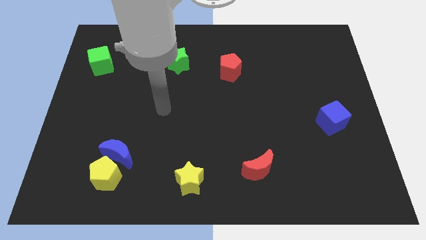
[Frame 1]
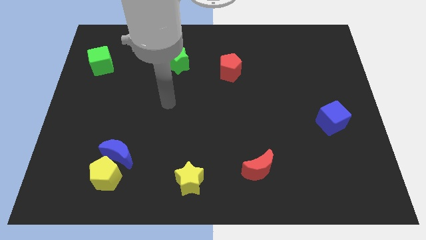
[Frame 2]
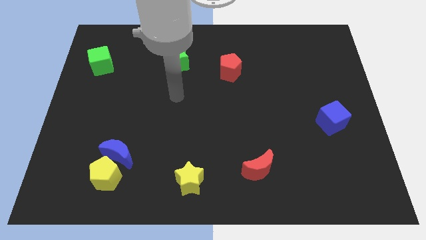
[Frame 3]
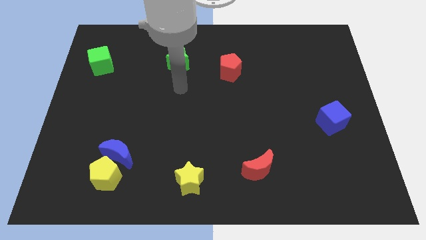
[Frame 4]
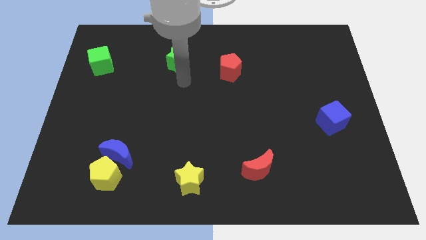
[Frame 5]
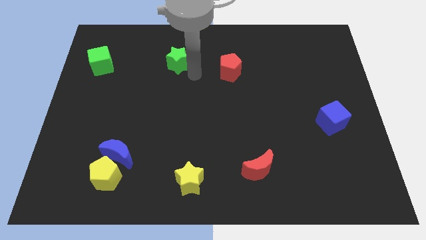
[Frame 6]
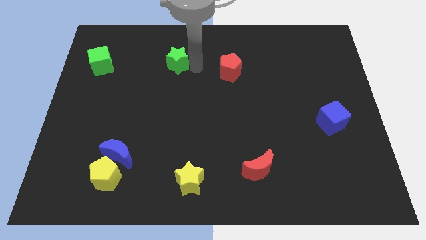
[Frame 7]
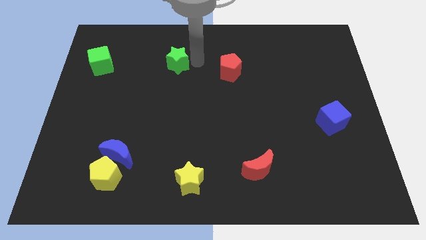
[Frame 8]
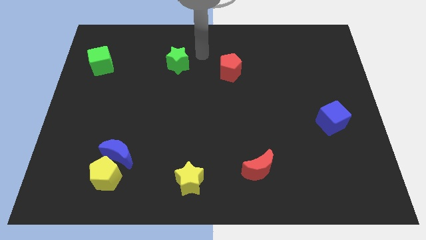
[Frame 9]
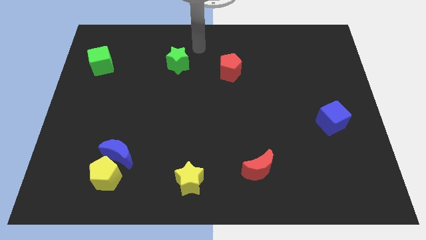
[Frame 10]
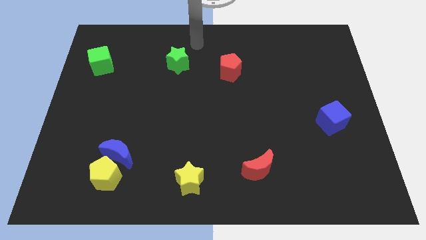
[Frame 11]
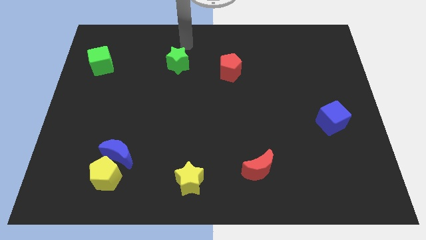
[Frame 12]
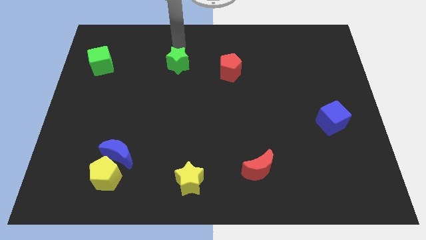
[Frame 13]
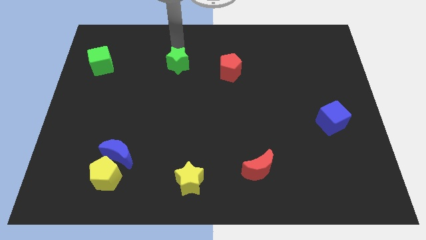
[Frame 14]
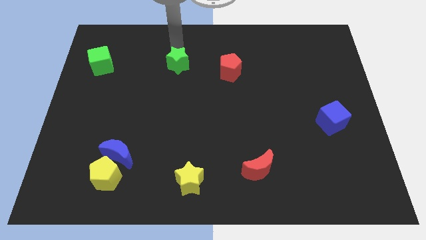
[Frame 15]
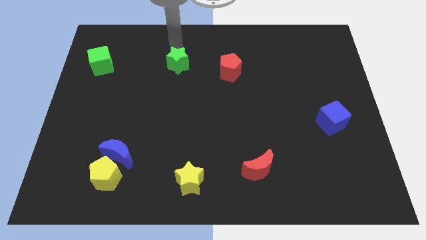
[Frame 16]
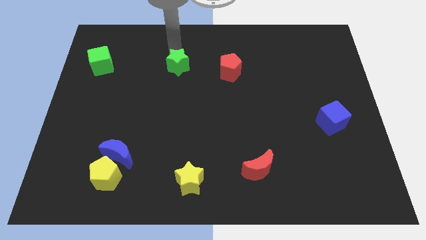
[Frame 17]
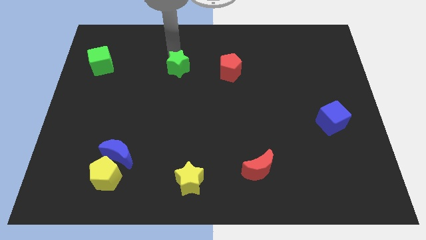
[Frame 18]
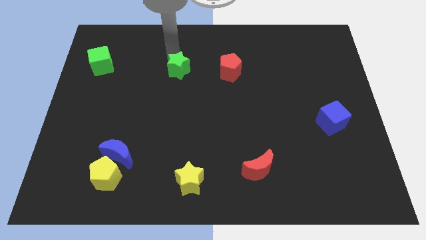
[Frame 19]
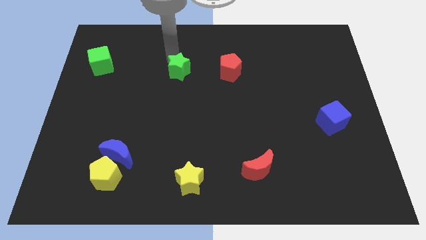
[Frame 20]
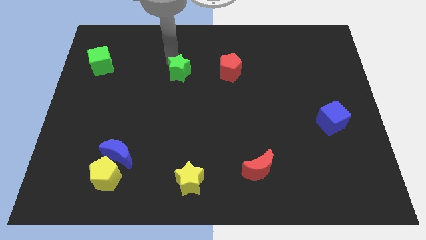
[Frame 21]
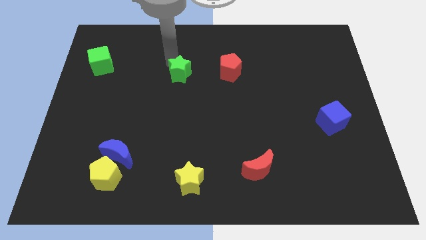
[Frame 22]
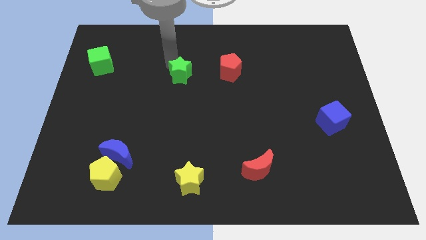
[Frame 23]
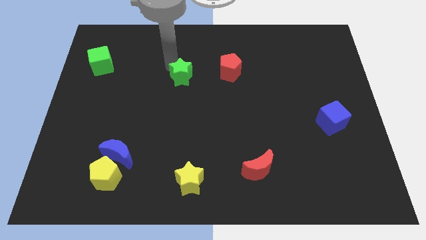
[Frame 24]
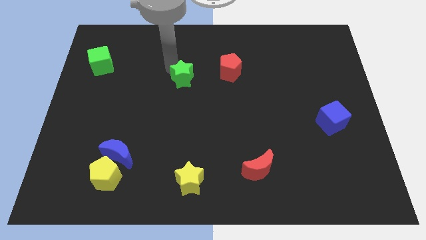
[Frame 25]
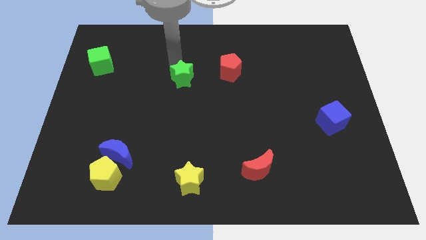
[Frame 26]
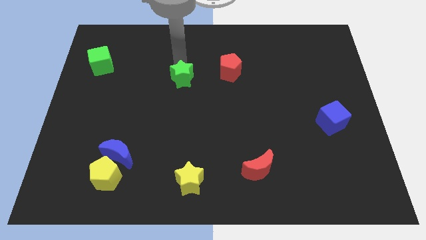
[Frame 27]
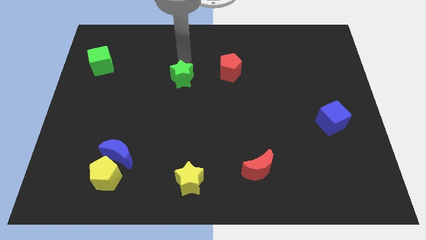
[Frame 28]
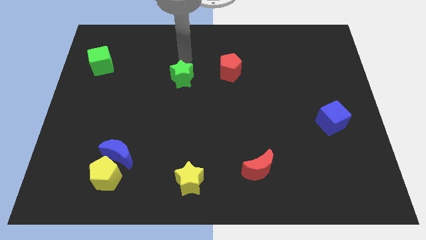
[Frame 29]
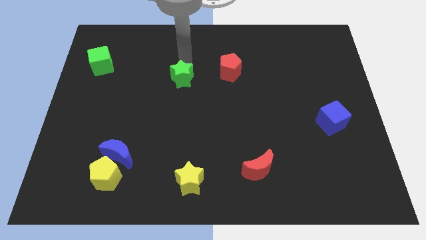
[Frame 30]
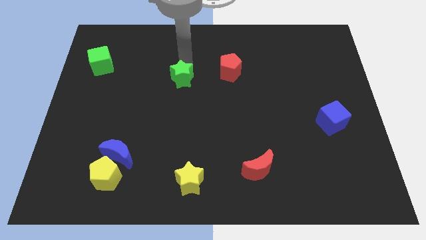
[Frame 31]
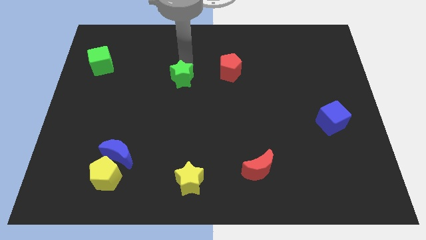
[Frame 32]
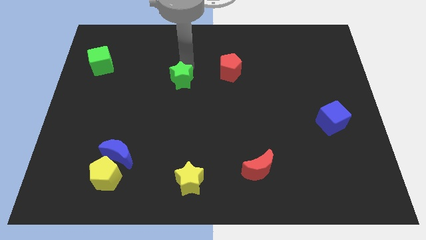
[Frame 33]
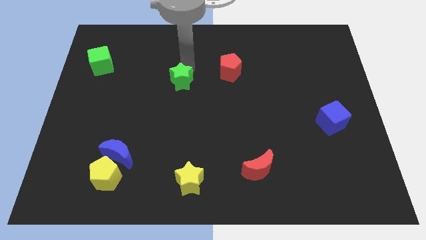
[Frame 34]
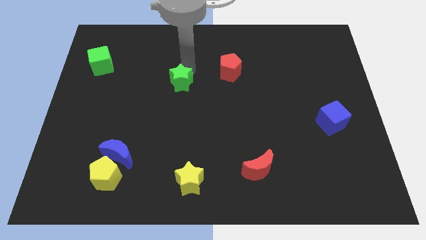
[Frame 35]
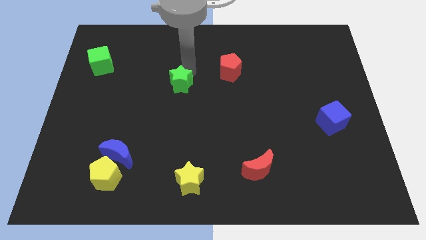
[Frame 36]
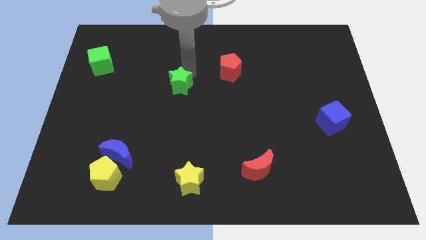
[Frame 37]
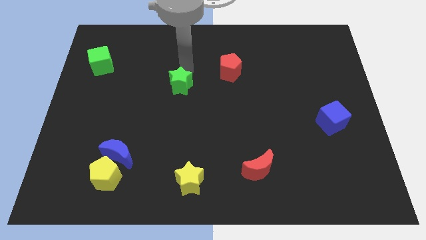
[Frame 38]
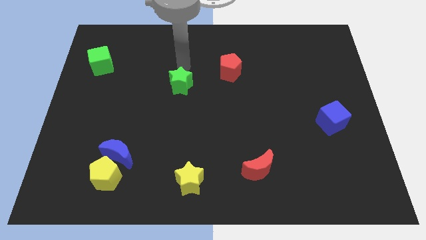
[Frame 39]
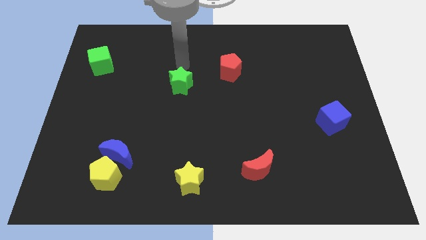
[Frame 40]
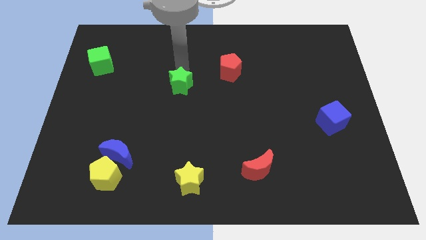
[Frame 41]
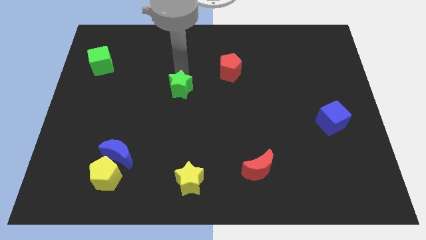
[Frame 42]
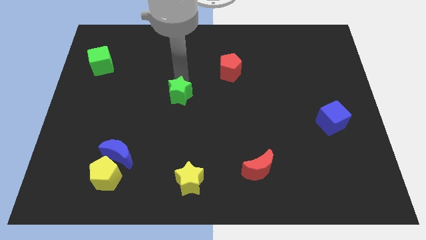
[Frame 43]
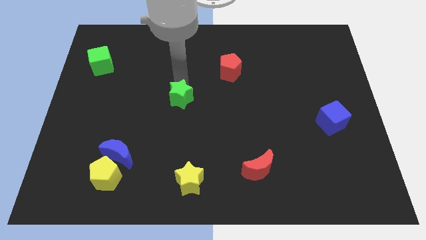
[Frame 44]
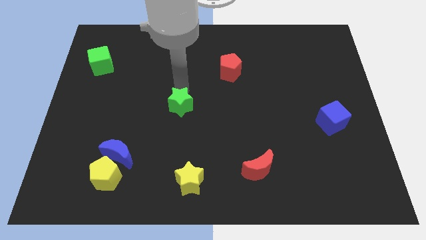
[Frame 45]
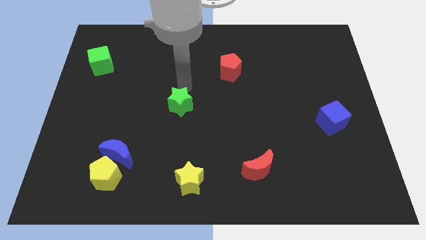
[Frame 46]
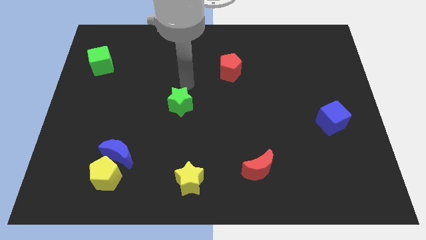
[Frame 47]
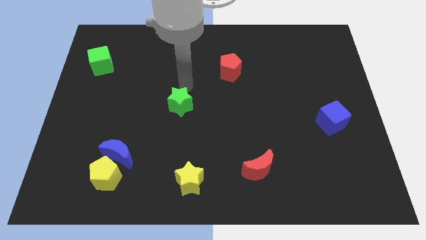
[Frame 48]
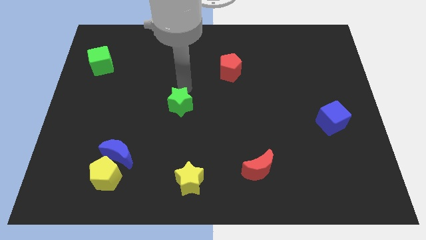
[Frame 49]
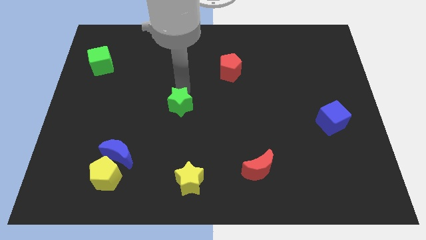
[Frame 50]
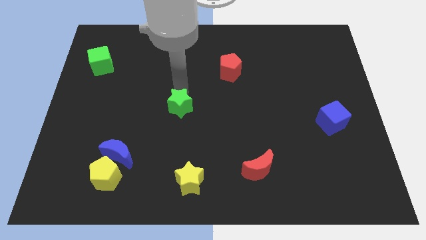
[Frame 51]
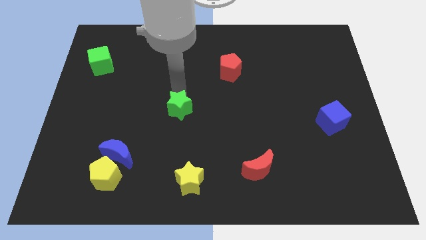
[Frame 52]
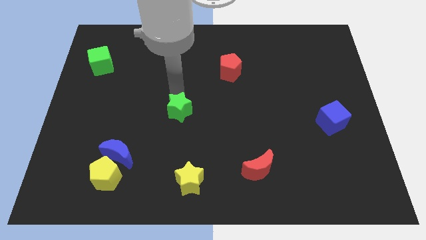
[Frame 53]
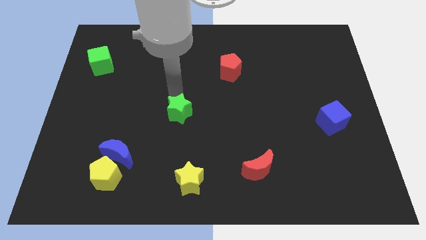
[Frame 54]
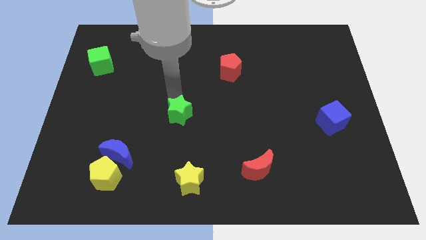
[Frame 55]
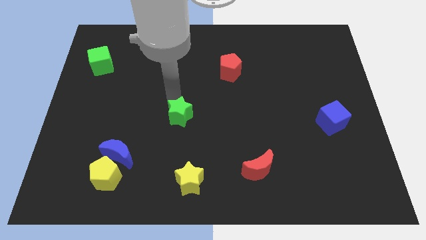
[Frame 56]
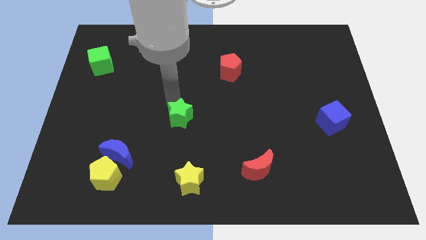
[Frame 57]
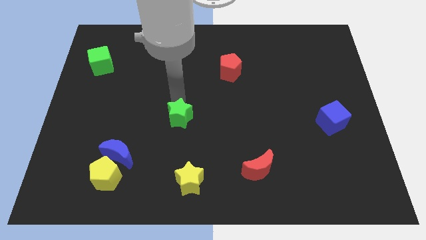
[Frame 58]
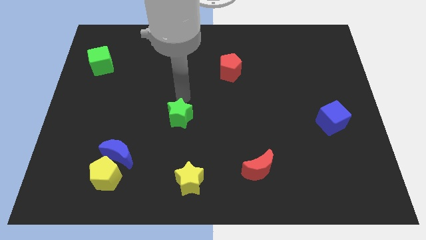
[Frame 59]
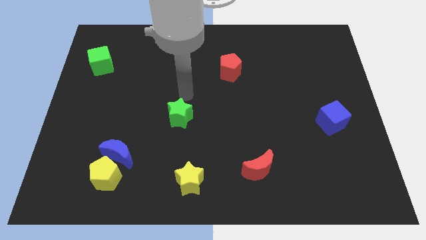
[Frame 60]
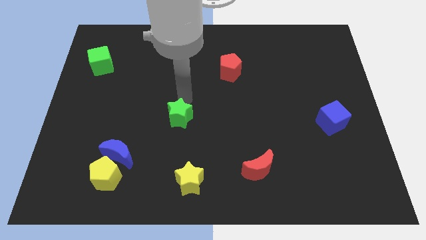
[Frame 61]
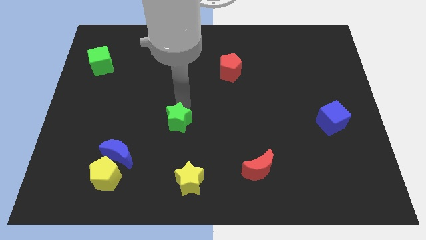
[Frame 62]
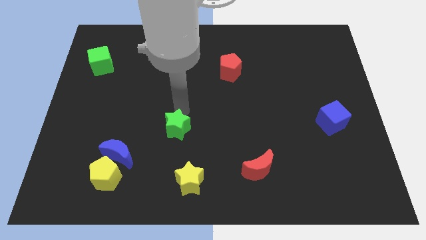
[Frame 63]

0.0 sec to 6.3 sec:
push the green star down

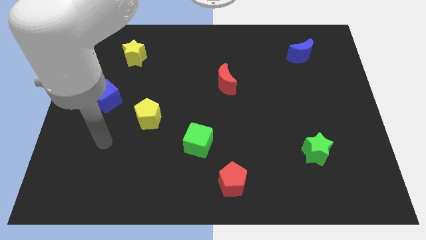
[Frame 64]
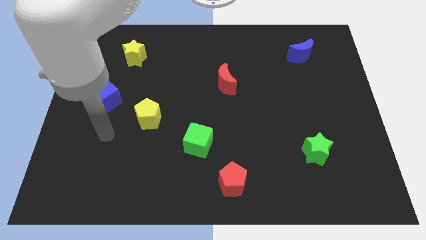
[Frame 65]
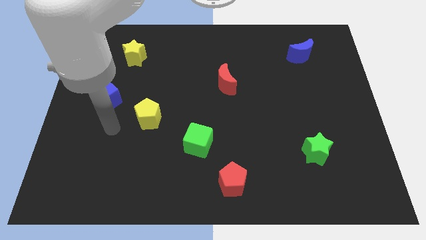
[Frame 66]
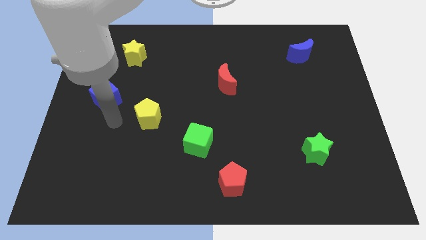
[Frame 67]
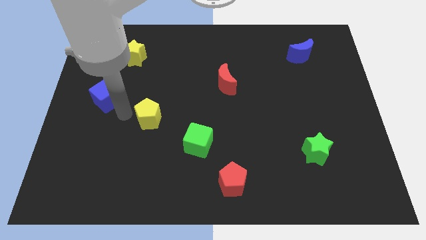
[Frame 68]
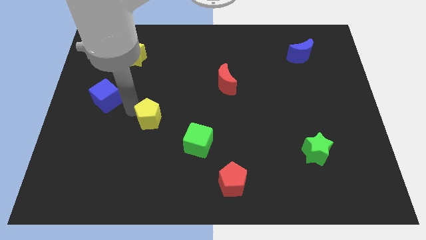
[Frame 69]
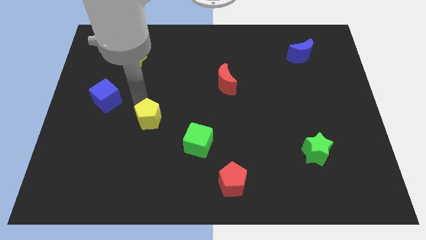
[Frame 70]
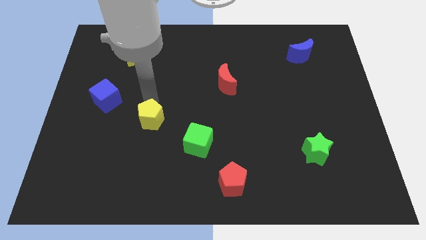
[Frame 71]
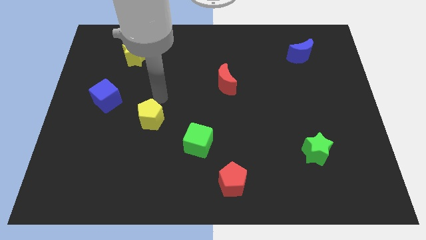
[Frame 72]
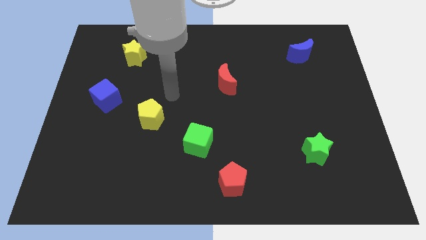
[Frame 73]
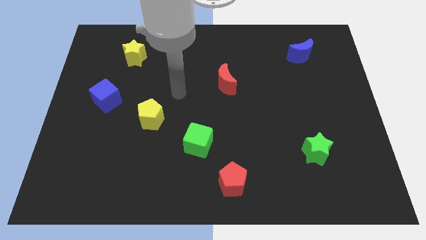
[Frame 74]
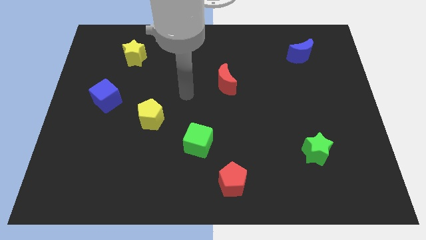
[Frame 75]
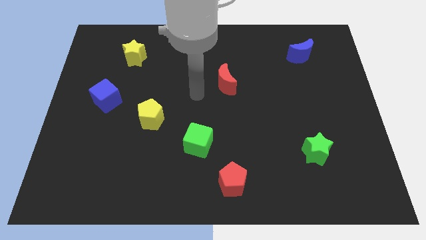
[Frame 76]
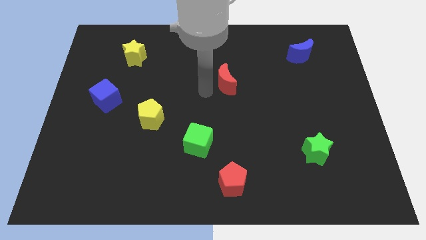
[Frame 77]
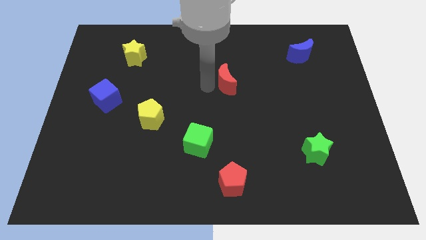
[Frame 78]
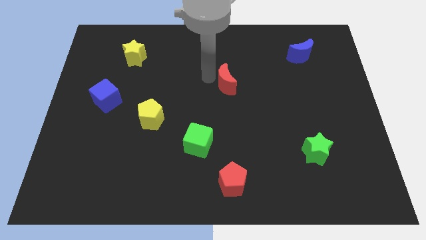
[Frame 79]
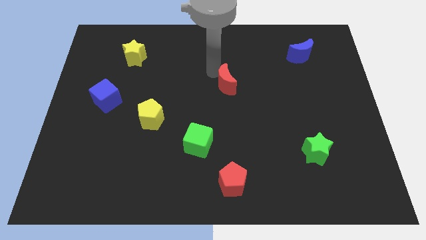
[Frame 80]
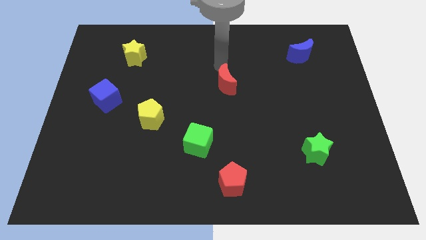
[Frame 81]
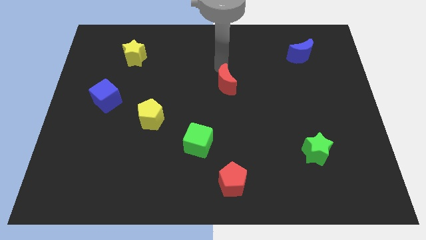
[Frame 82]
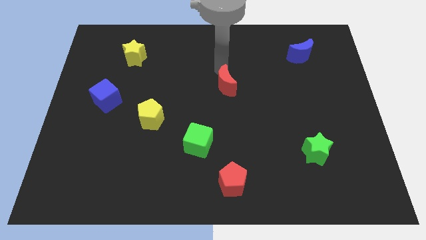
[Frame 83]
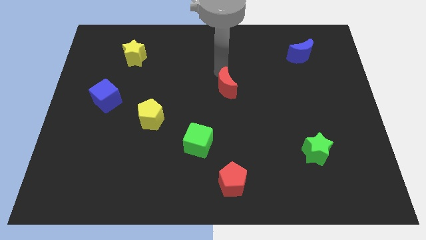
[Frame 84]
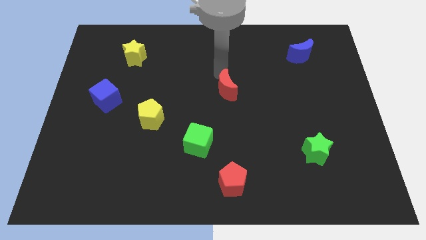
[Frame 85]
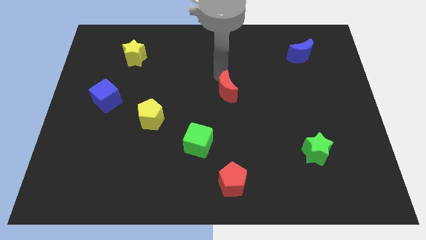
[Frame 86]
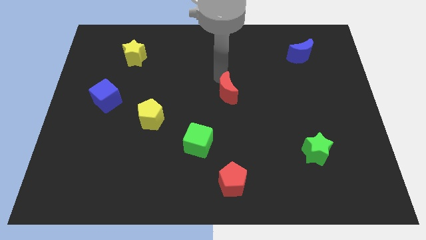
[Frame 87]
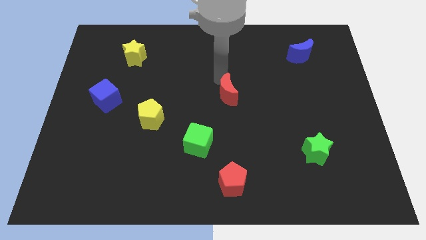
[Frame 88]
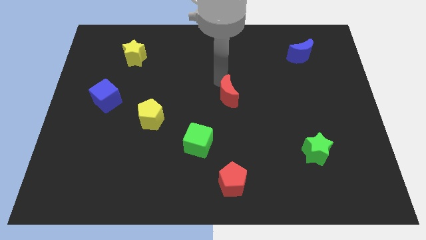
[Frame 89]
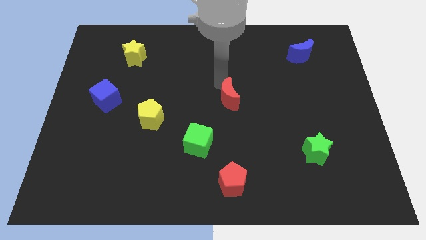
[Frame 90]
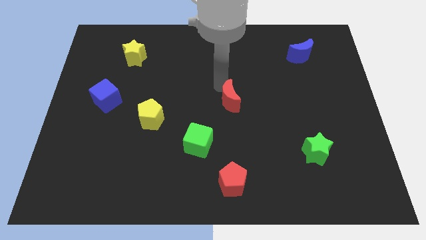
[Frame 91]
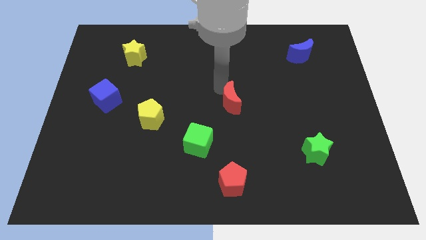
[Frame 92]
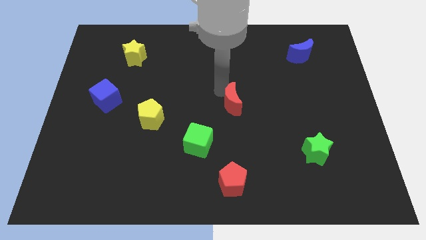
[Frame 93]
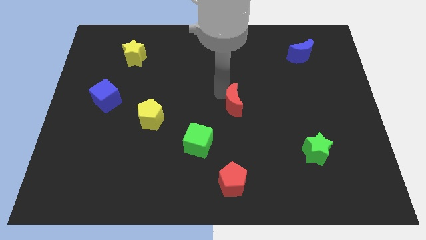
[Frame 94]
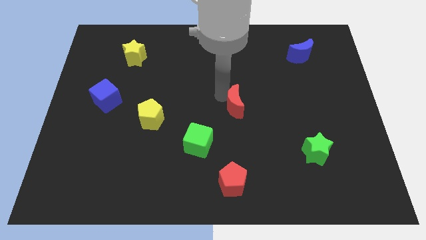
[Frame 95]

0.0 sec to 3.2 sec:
push the red moon downwards somewhat
